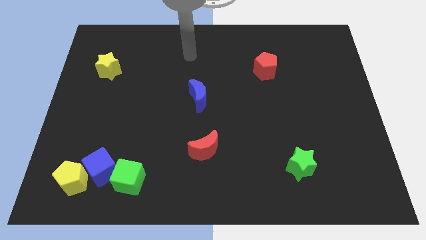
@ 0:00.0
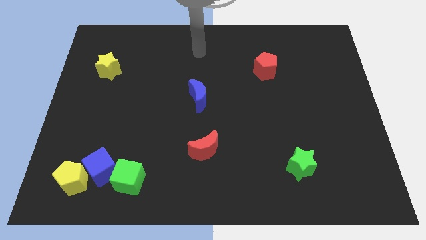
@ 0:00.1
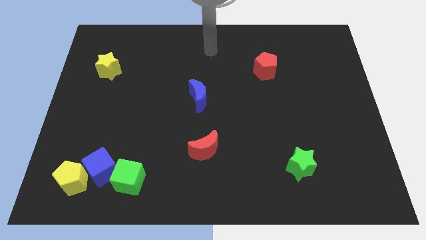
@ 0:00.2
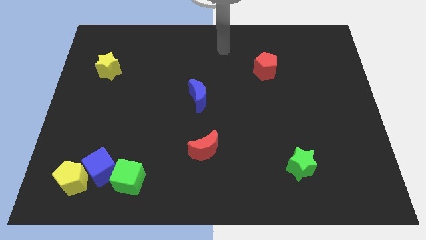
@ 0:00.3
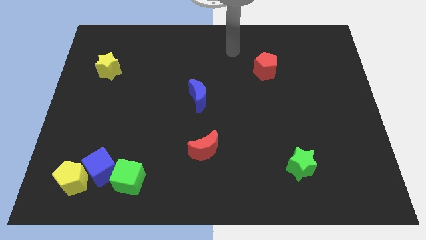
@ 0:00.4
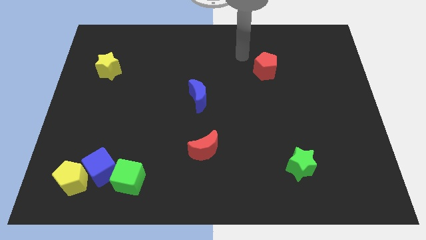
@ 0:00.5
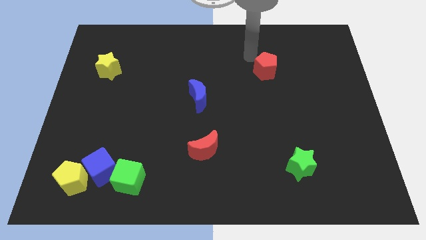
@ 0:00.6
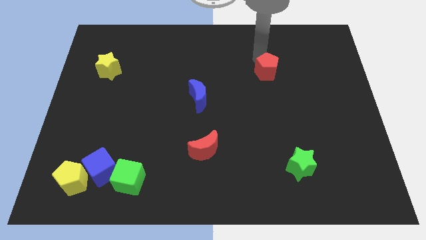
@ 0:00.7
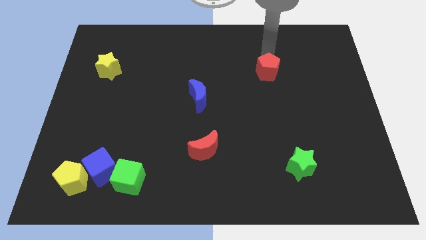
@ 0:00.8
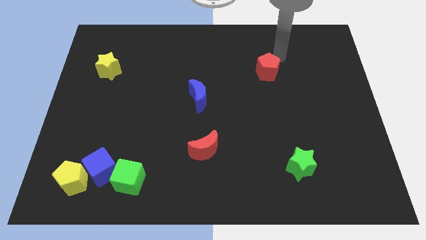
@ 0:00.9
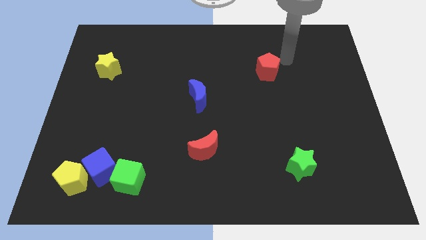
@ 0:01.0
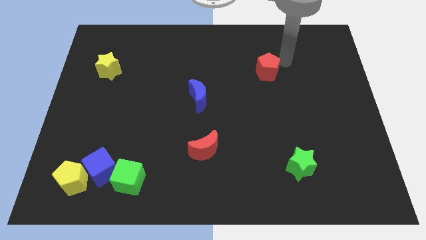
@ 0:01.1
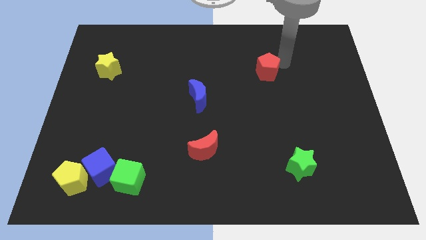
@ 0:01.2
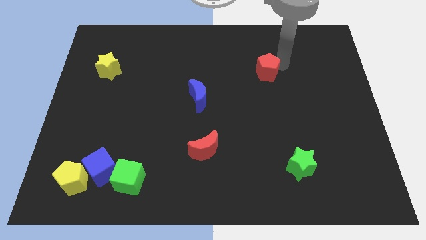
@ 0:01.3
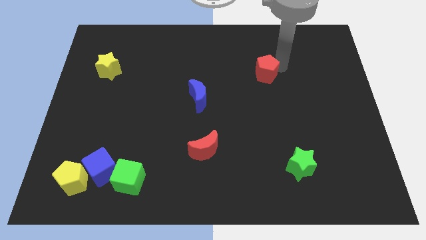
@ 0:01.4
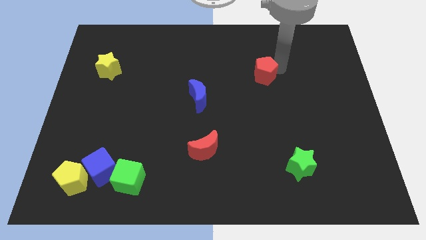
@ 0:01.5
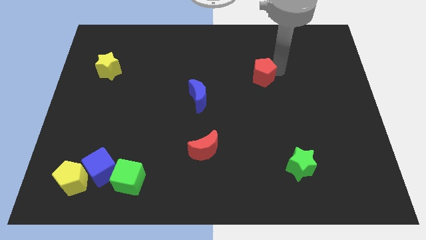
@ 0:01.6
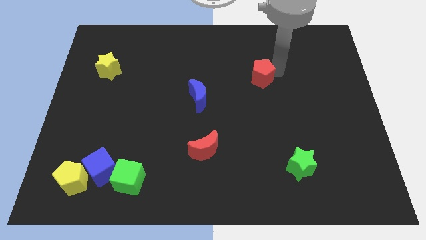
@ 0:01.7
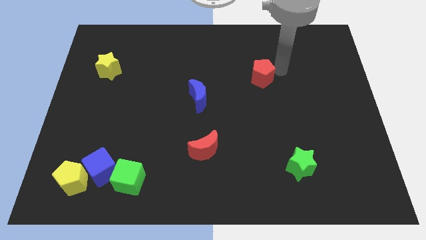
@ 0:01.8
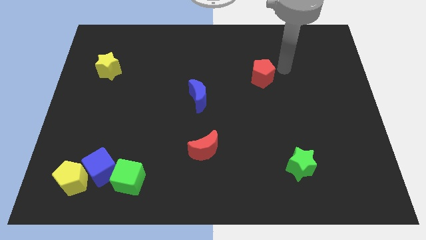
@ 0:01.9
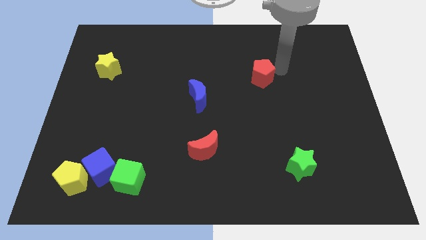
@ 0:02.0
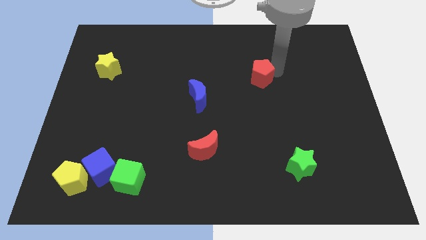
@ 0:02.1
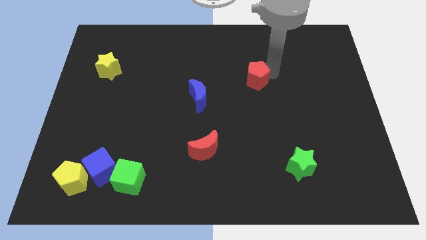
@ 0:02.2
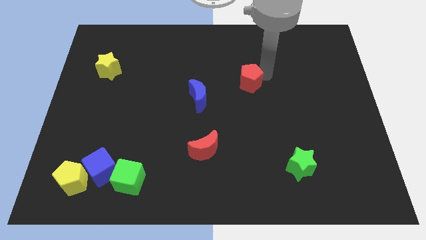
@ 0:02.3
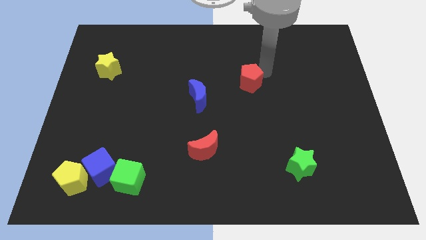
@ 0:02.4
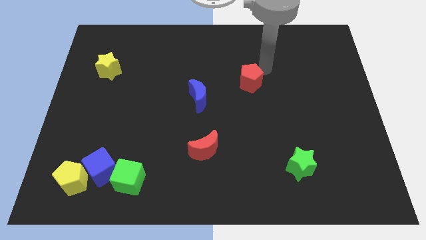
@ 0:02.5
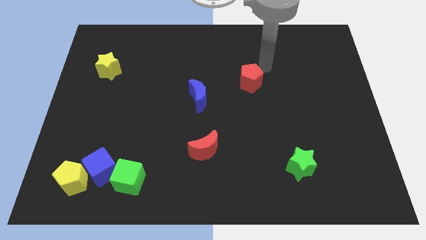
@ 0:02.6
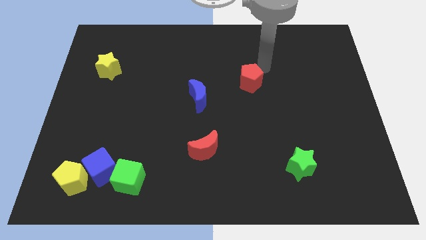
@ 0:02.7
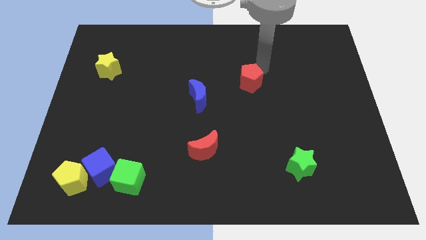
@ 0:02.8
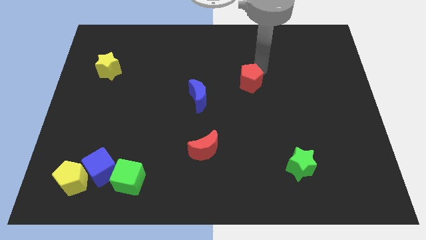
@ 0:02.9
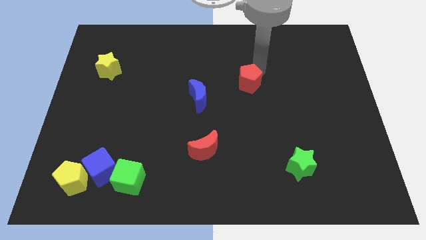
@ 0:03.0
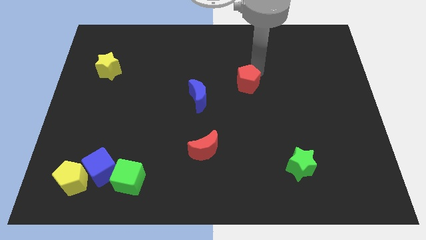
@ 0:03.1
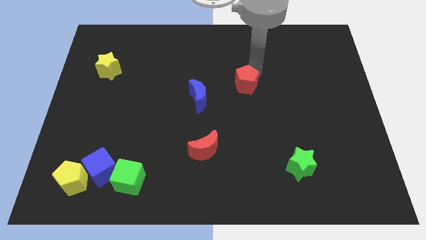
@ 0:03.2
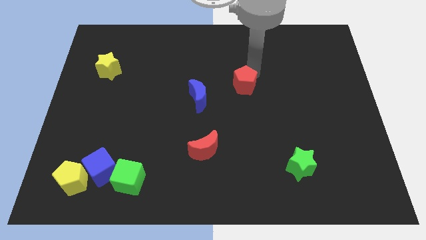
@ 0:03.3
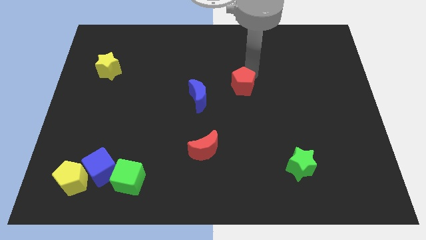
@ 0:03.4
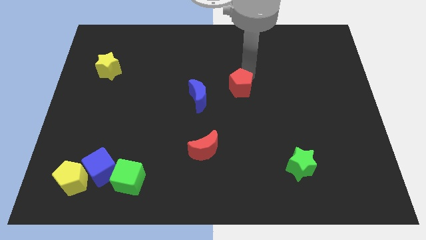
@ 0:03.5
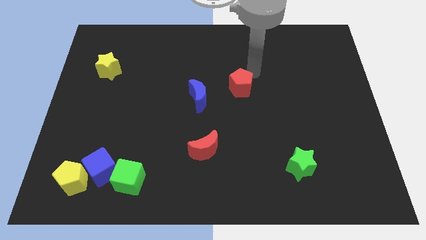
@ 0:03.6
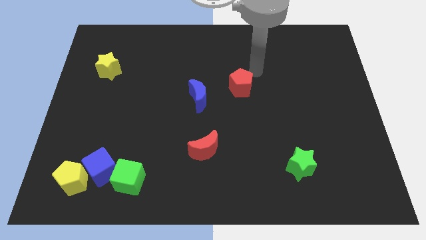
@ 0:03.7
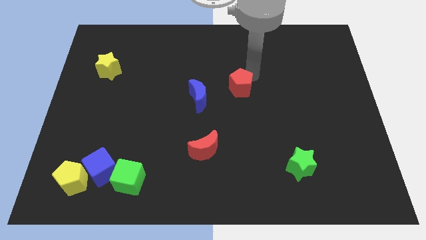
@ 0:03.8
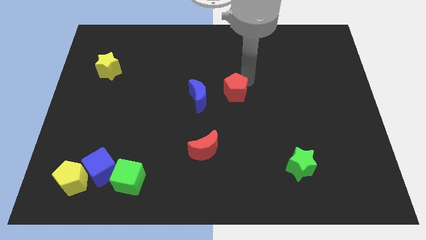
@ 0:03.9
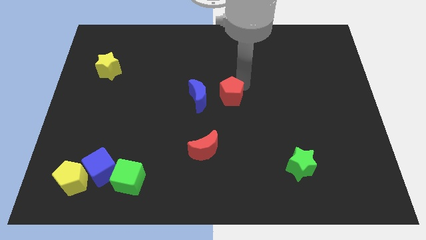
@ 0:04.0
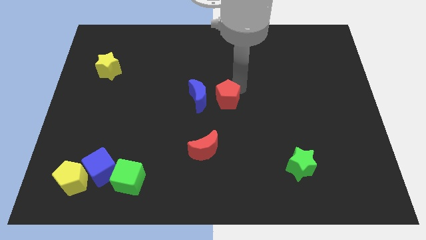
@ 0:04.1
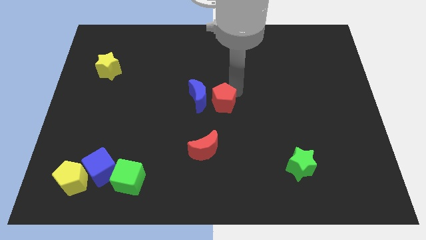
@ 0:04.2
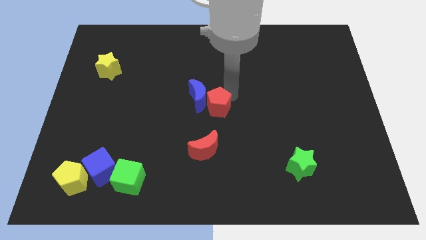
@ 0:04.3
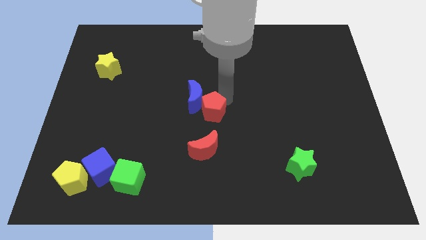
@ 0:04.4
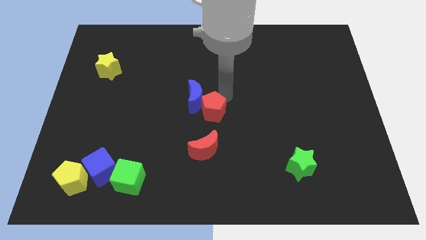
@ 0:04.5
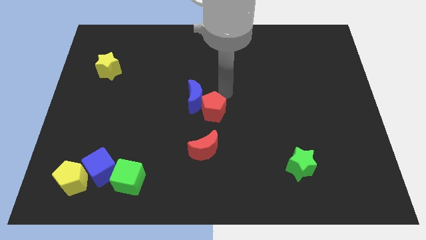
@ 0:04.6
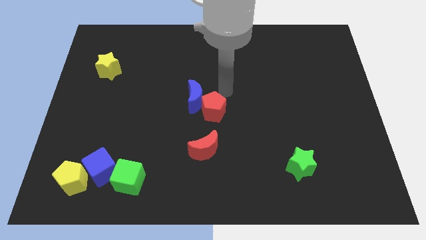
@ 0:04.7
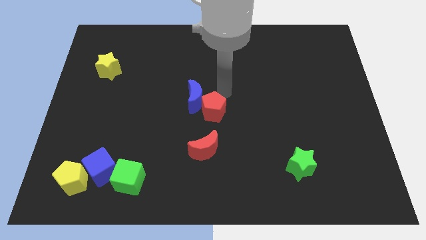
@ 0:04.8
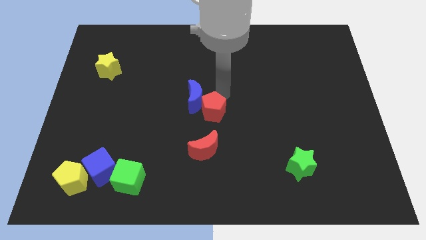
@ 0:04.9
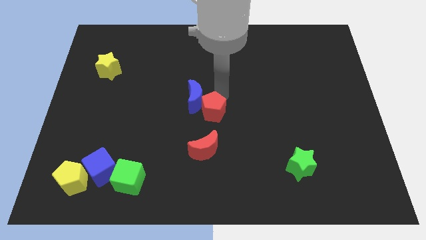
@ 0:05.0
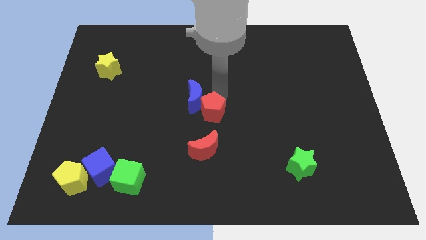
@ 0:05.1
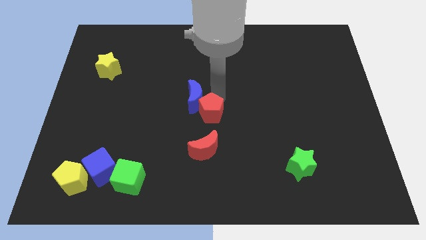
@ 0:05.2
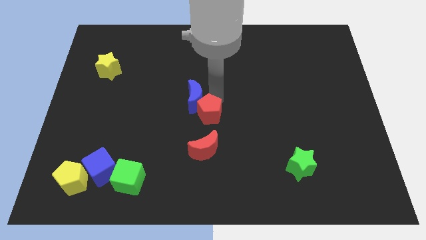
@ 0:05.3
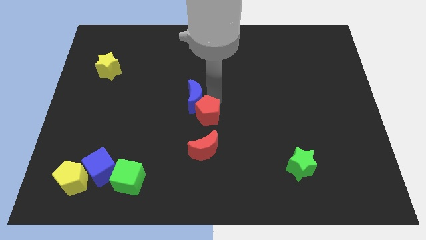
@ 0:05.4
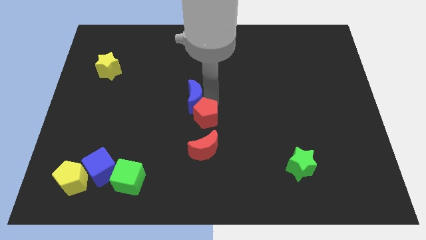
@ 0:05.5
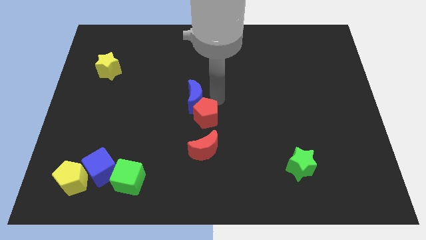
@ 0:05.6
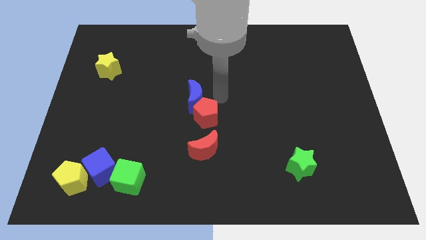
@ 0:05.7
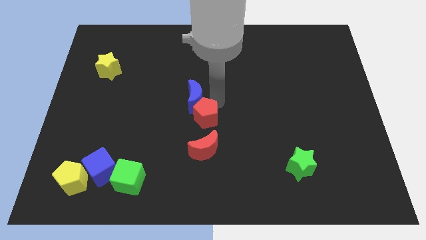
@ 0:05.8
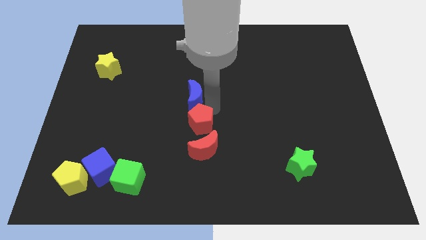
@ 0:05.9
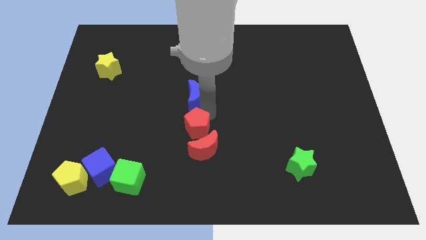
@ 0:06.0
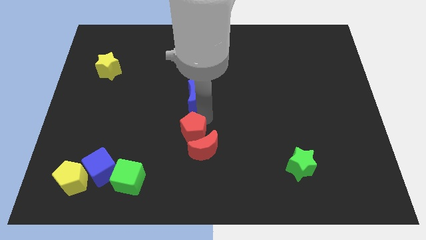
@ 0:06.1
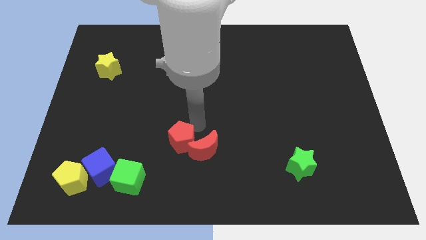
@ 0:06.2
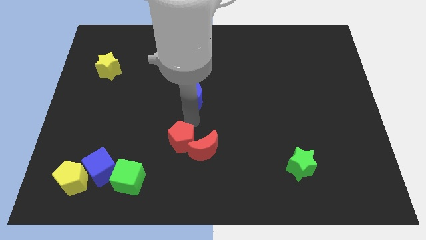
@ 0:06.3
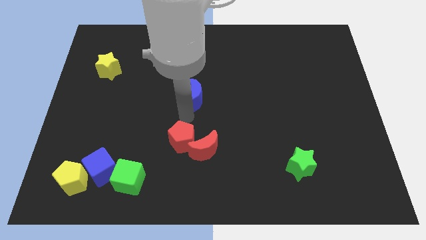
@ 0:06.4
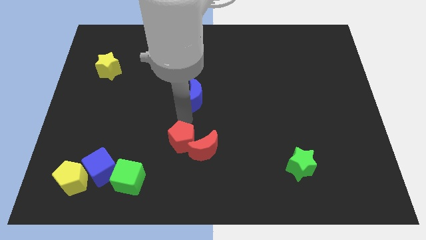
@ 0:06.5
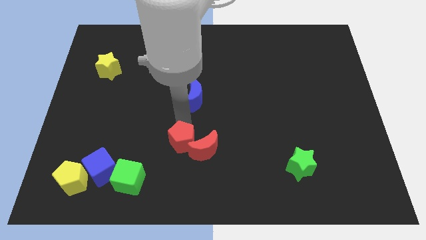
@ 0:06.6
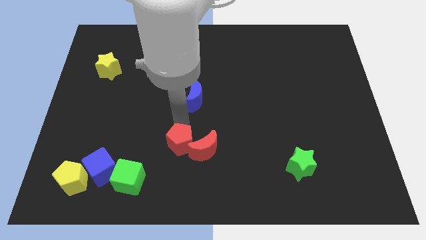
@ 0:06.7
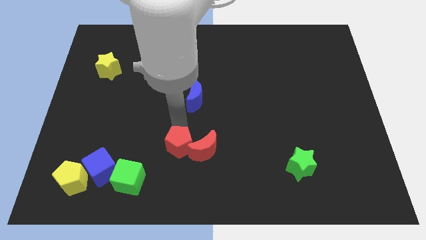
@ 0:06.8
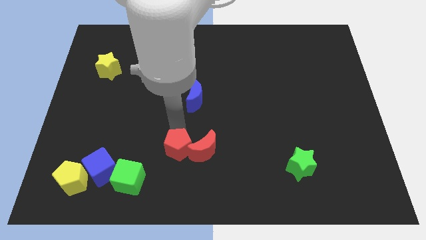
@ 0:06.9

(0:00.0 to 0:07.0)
move the red pentagon to the bottom left of the red moon
